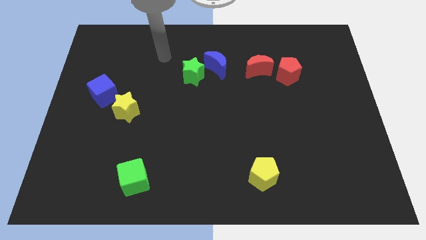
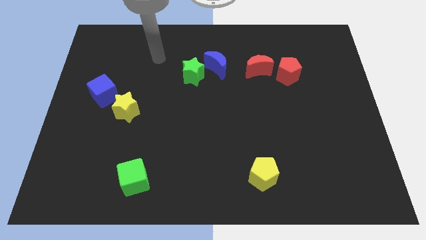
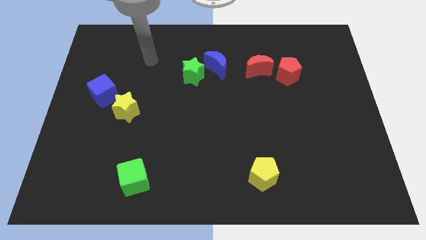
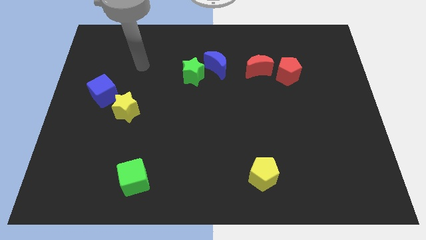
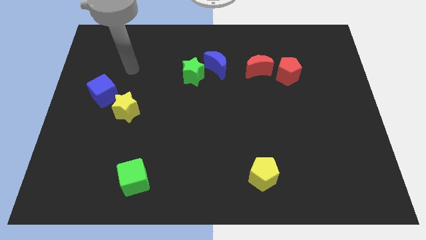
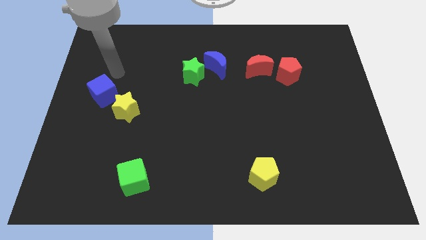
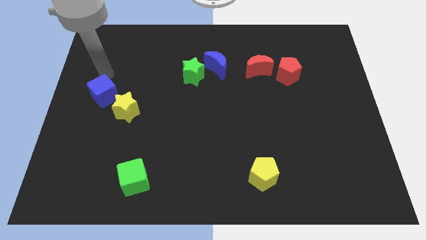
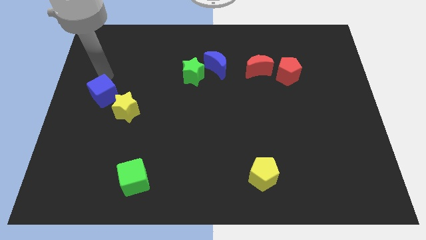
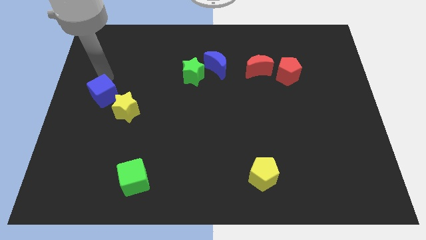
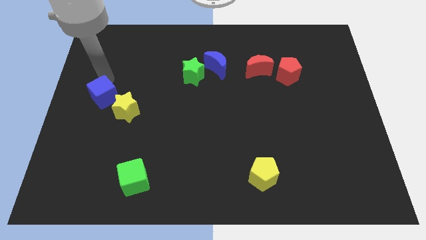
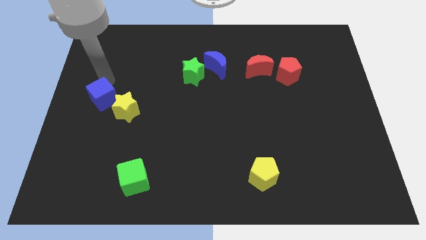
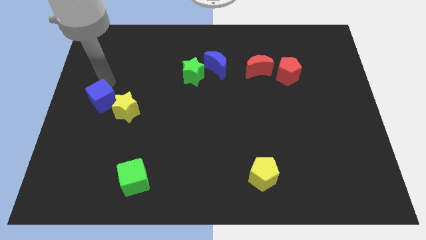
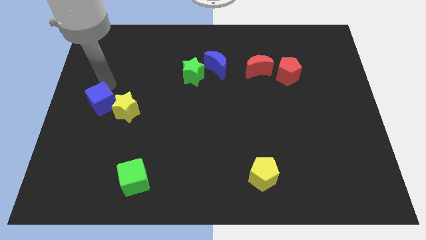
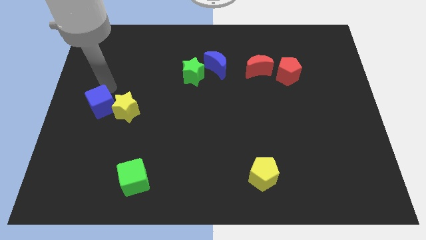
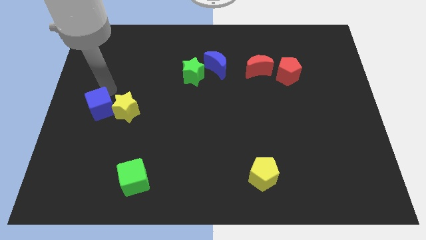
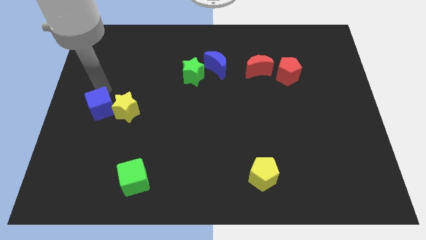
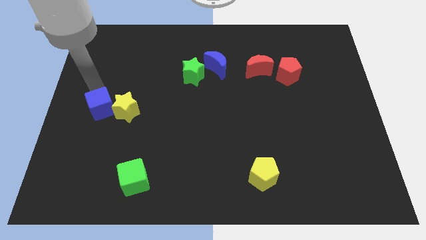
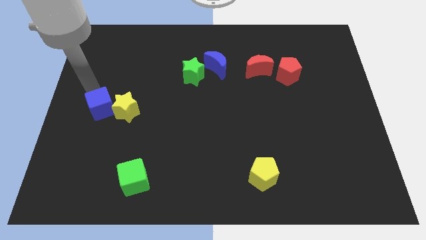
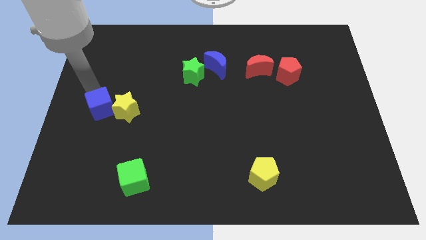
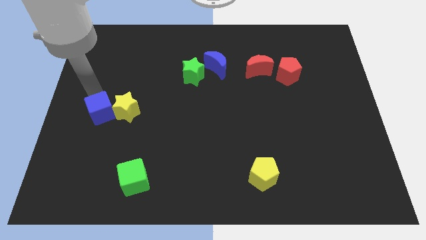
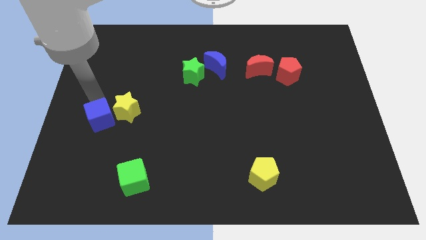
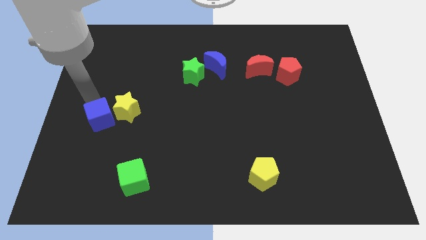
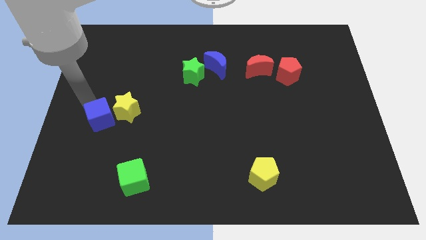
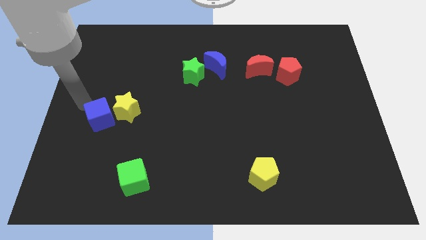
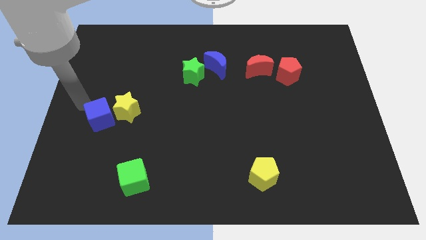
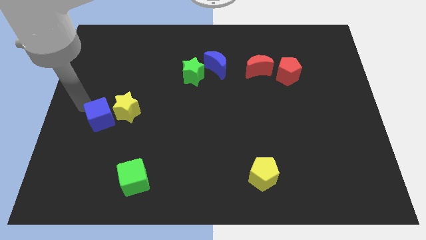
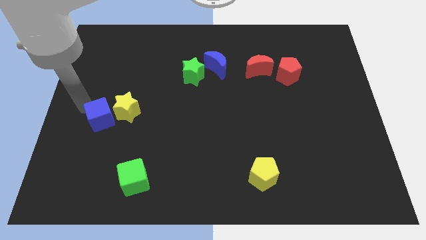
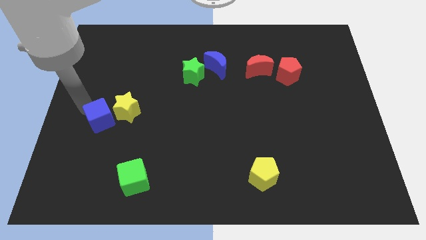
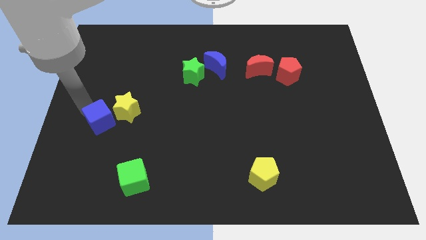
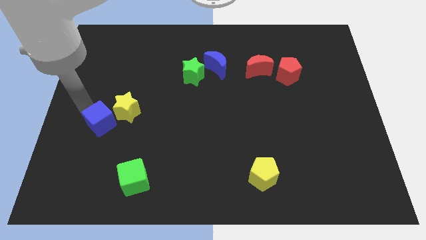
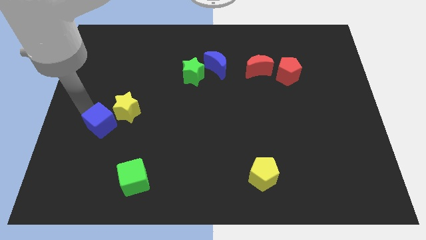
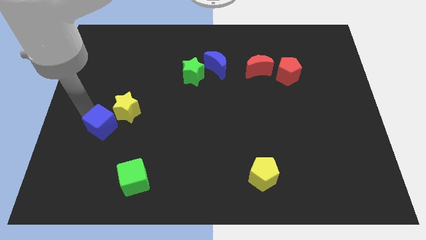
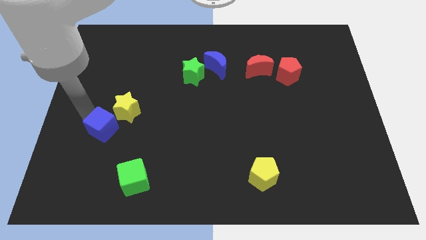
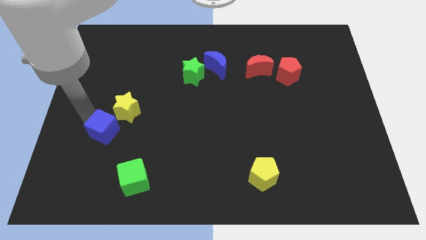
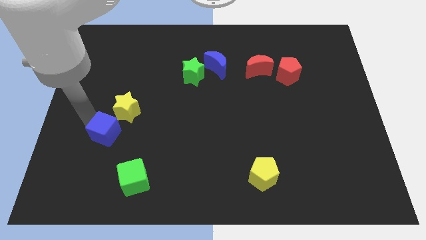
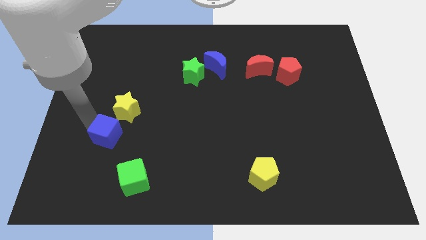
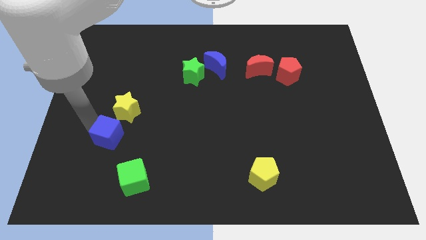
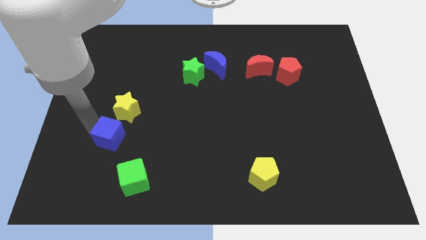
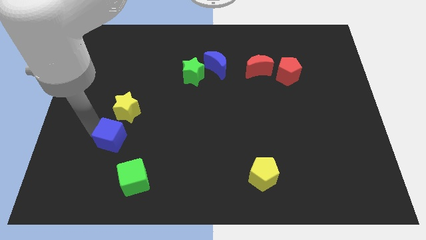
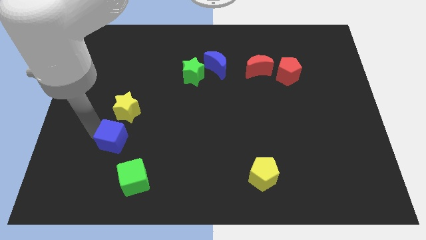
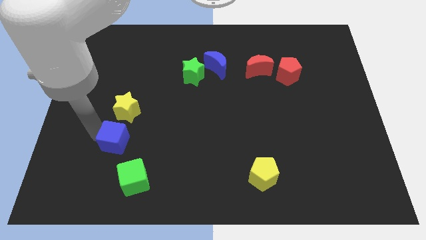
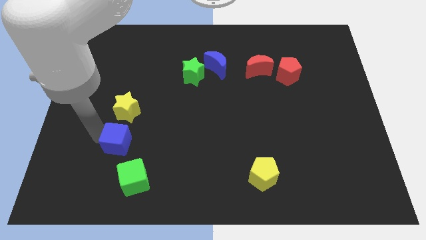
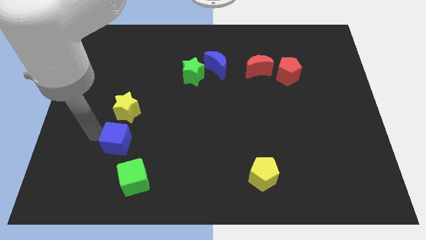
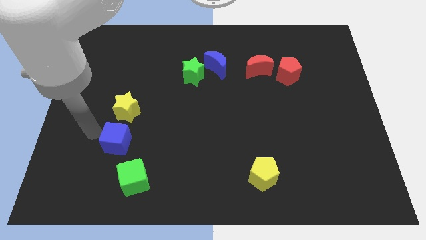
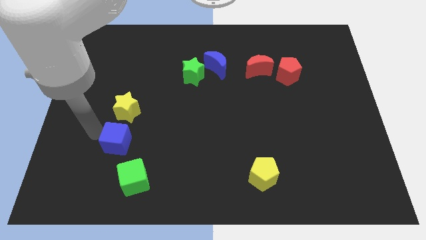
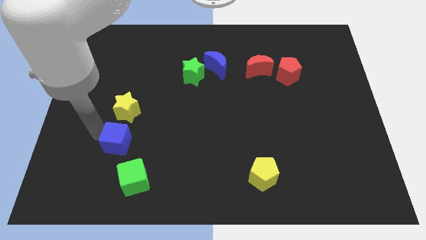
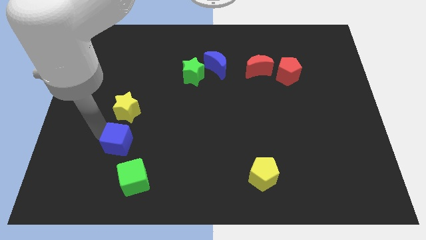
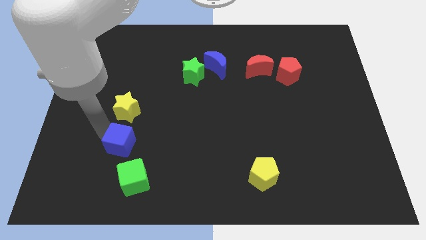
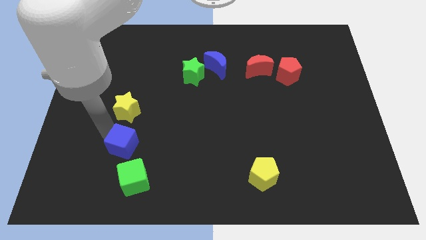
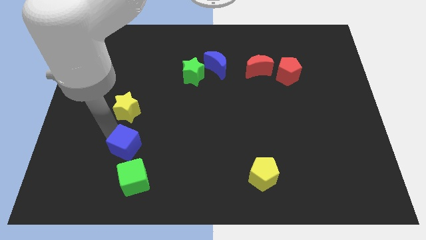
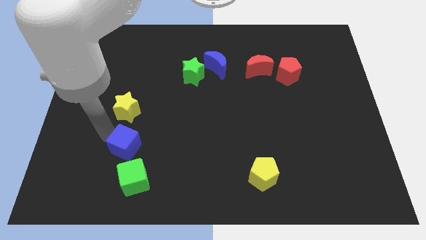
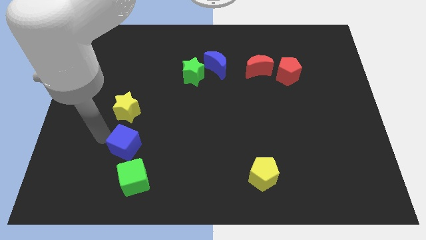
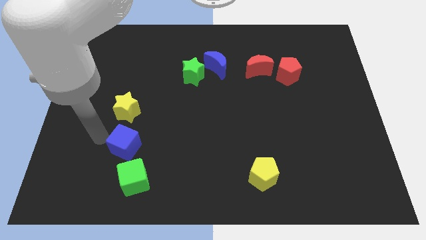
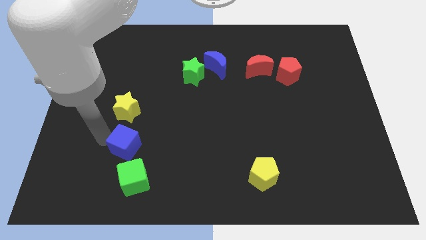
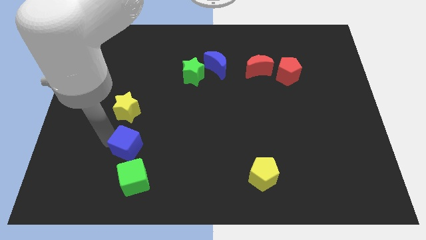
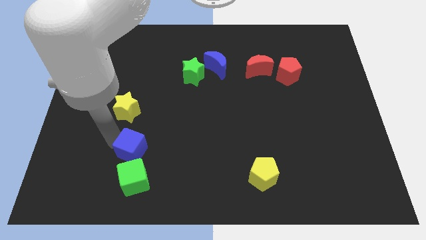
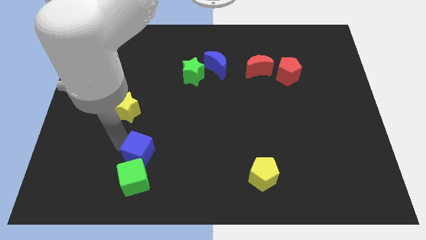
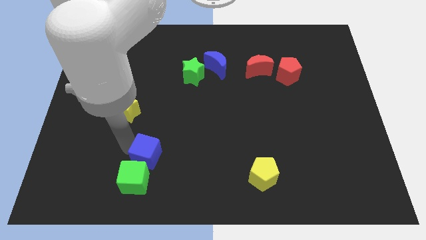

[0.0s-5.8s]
push the blue cube downwards and then to the right

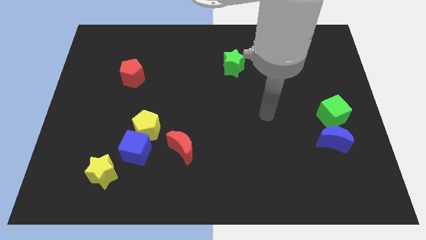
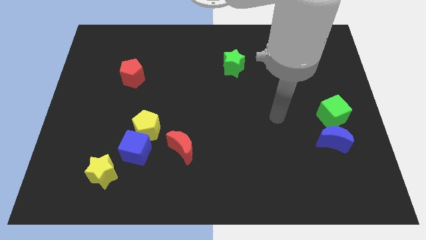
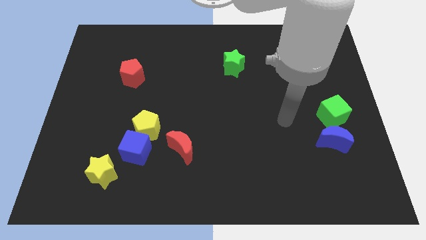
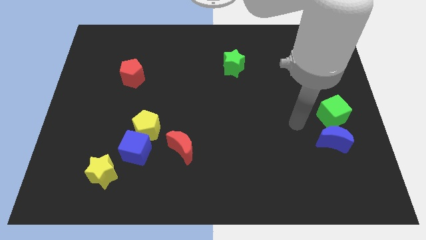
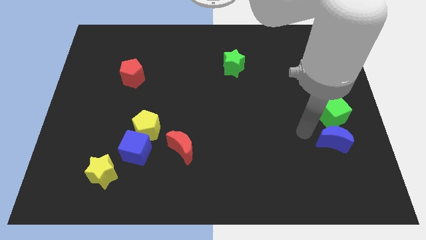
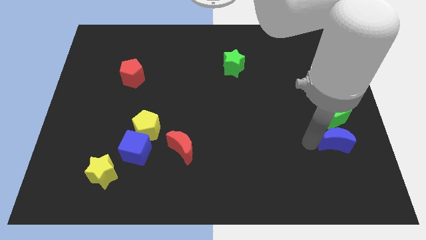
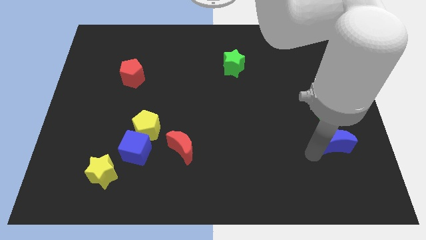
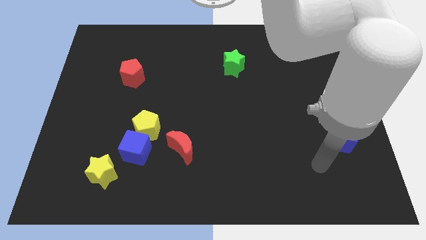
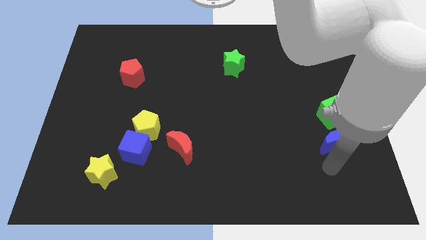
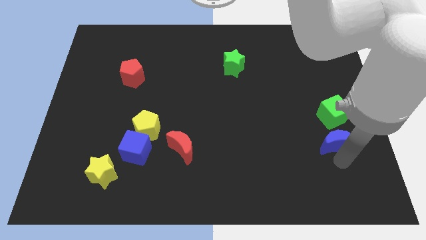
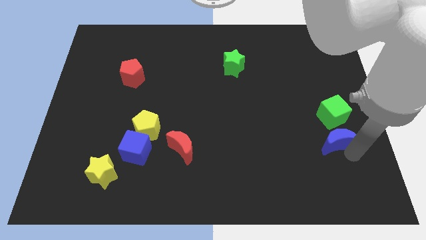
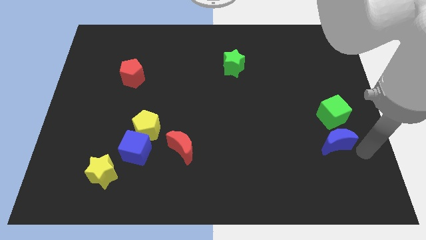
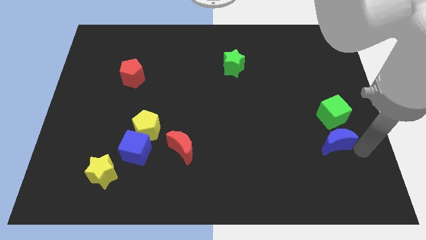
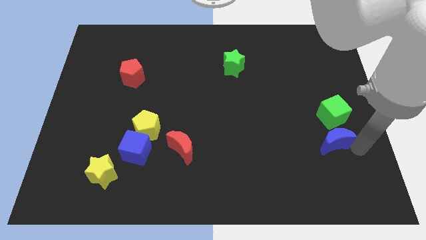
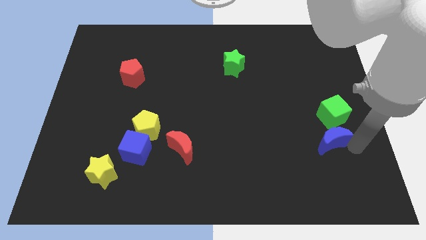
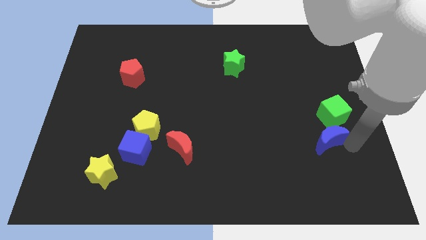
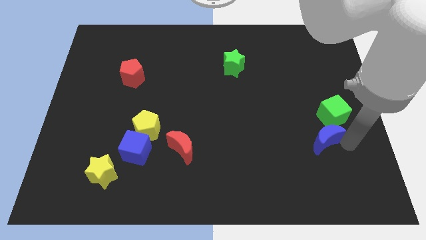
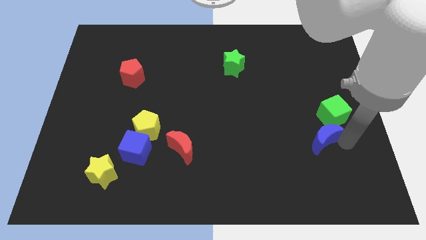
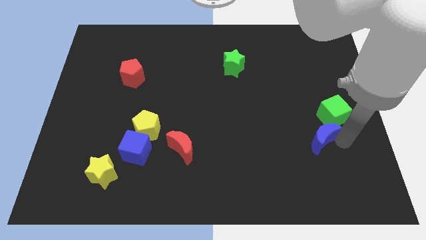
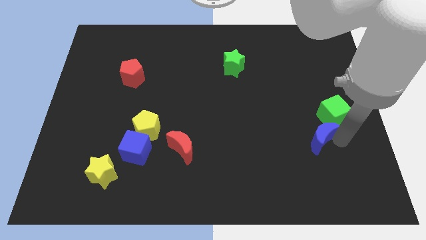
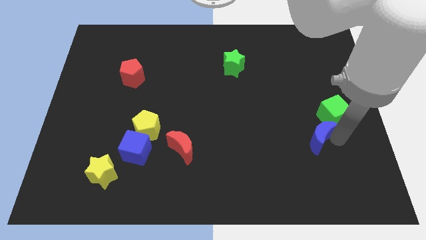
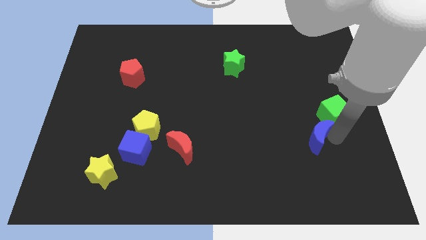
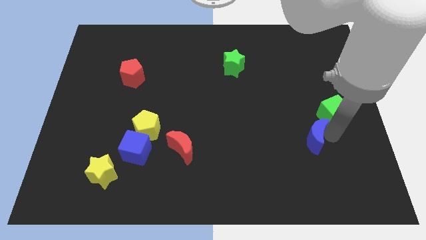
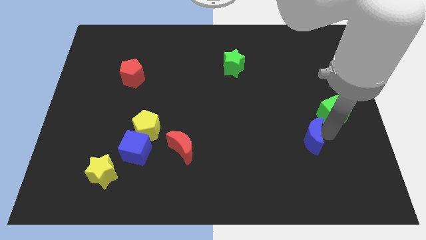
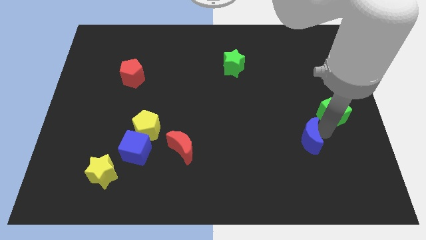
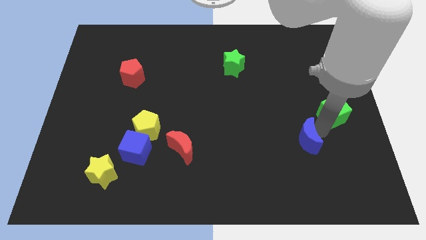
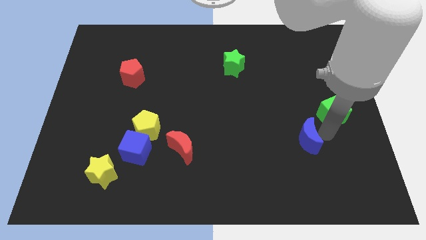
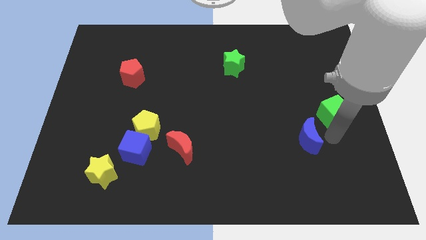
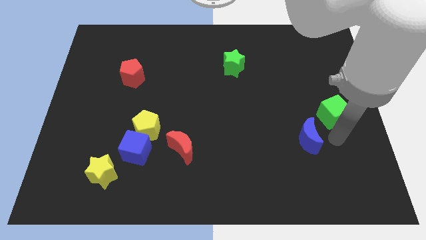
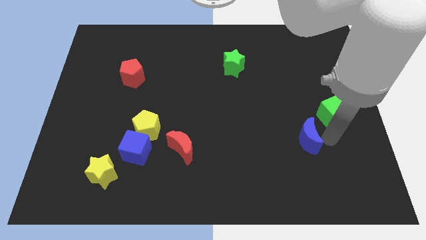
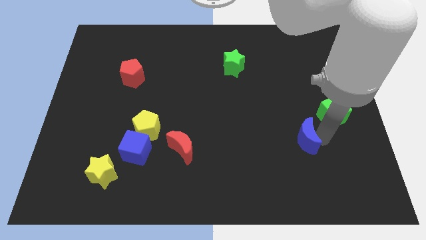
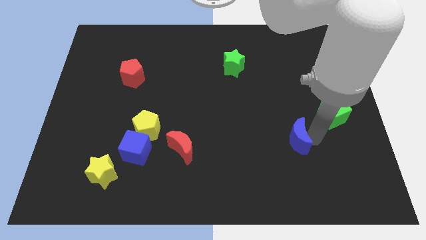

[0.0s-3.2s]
slightly slide the blue moon left
